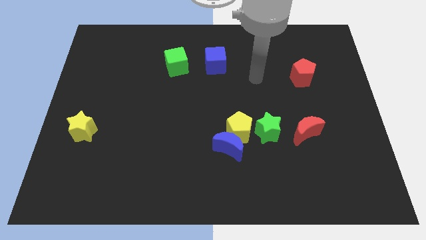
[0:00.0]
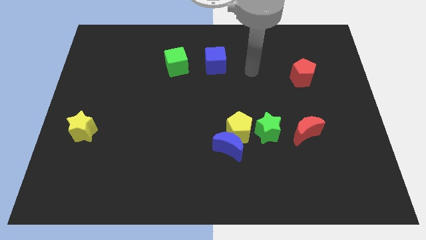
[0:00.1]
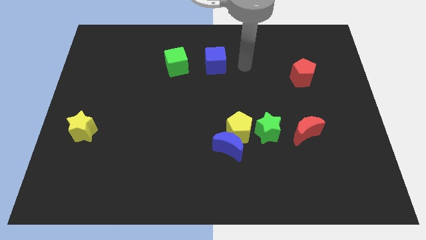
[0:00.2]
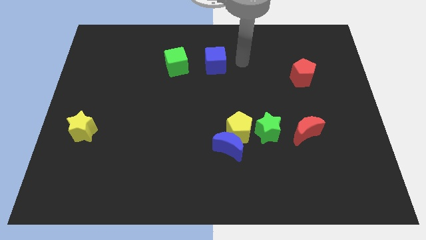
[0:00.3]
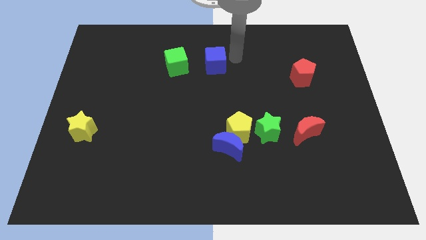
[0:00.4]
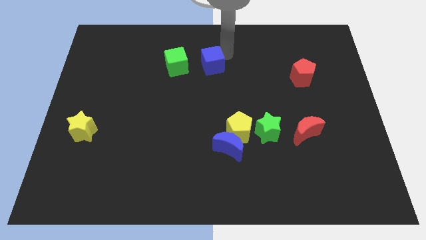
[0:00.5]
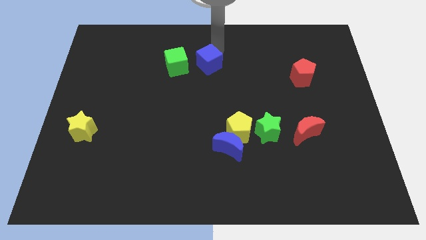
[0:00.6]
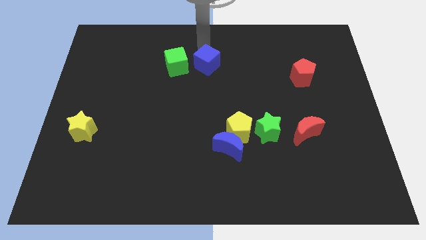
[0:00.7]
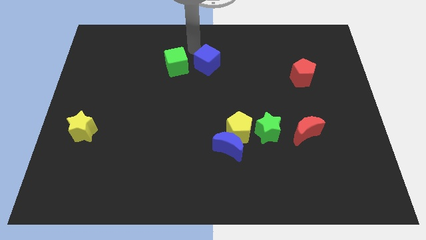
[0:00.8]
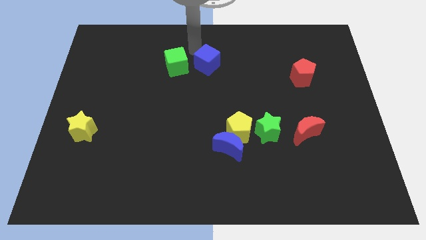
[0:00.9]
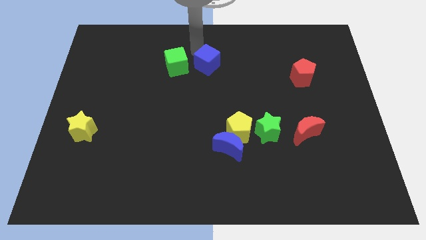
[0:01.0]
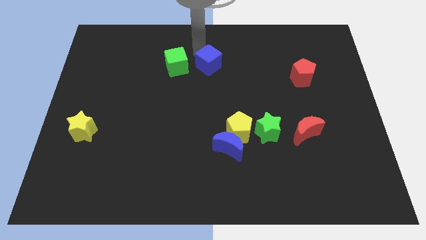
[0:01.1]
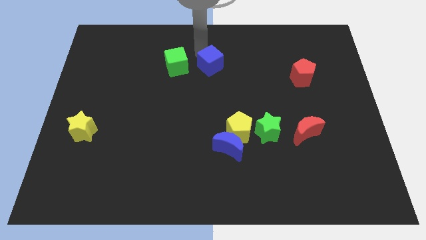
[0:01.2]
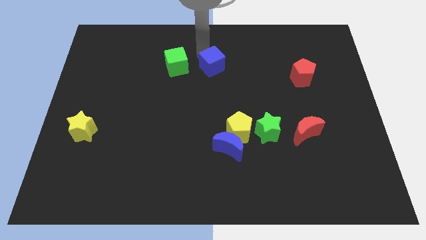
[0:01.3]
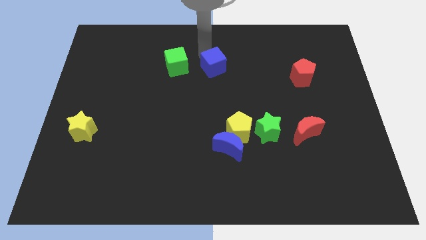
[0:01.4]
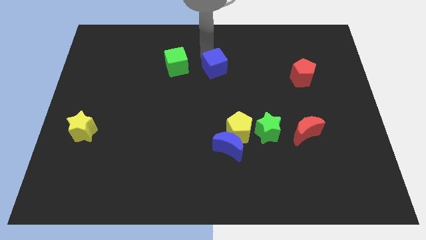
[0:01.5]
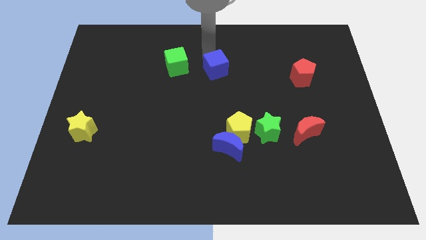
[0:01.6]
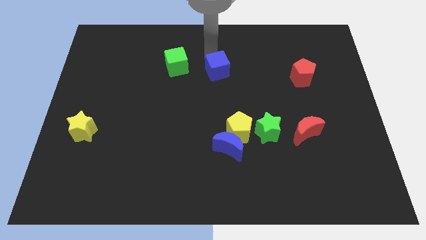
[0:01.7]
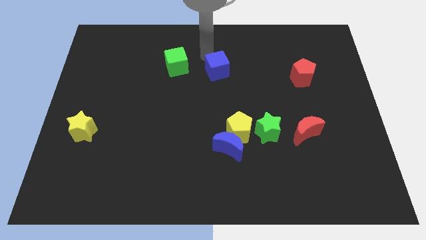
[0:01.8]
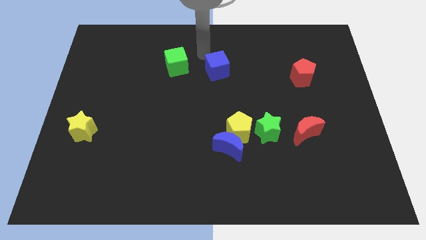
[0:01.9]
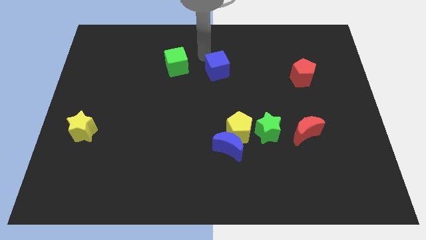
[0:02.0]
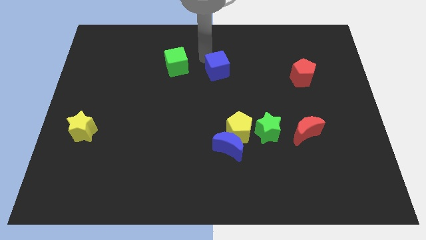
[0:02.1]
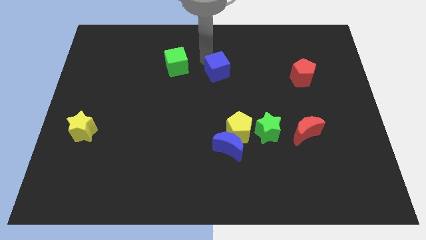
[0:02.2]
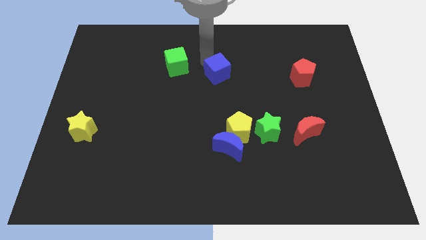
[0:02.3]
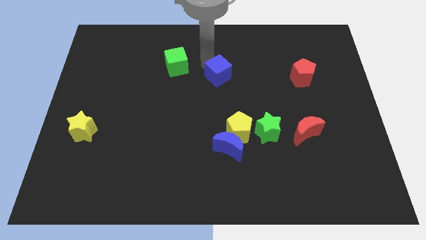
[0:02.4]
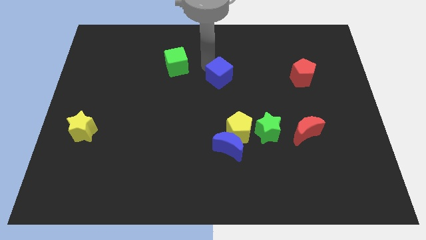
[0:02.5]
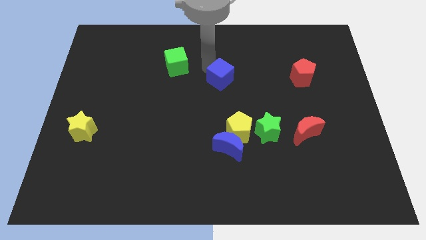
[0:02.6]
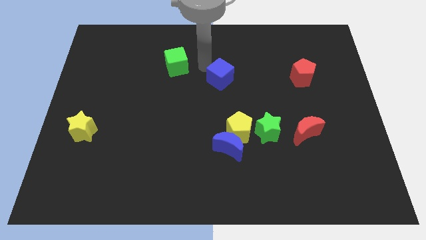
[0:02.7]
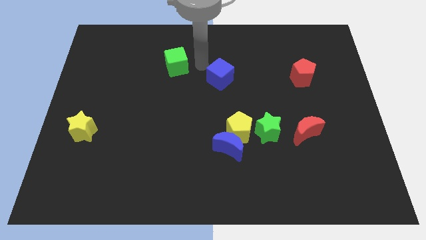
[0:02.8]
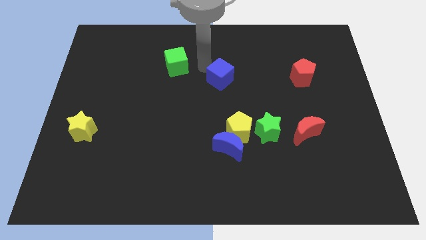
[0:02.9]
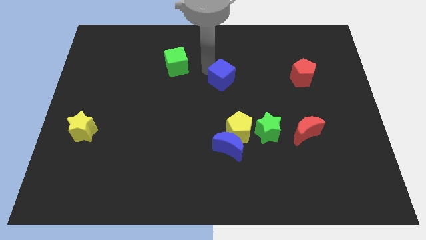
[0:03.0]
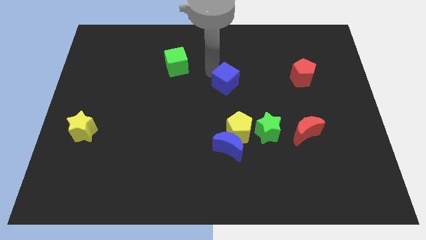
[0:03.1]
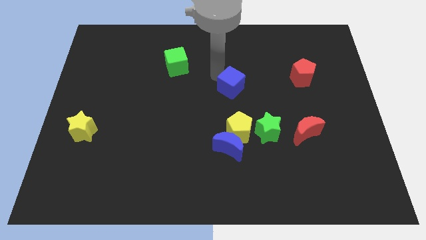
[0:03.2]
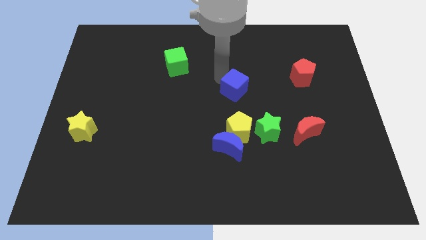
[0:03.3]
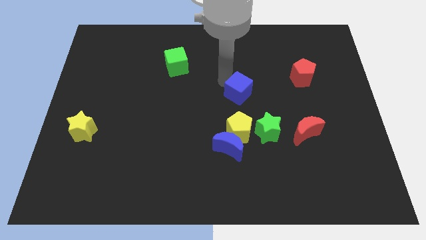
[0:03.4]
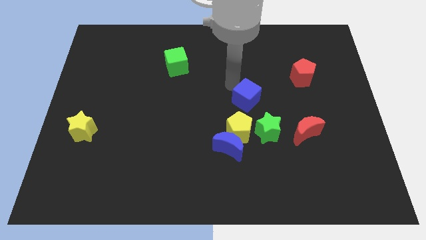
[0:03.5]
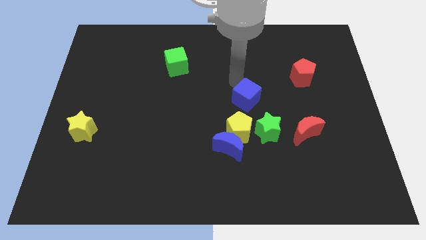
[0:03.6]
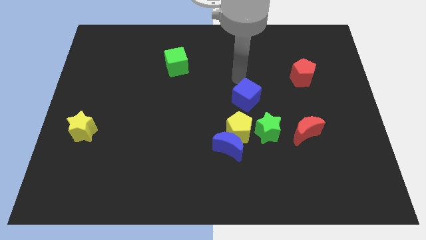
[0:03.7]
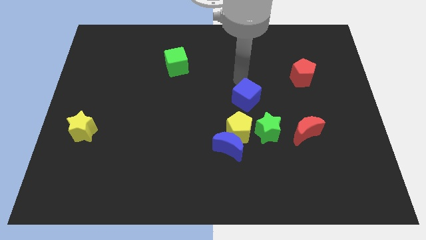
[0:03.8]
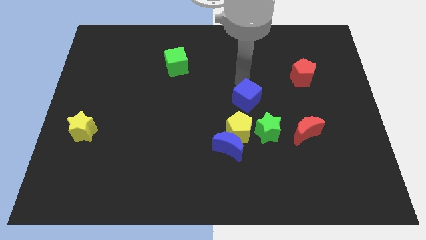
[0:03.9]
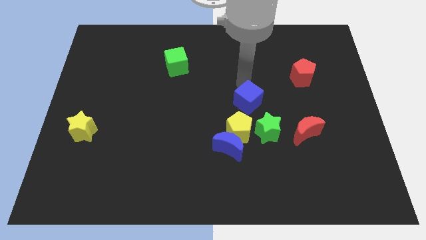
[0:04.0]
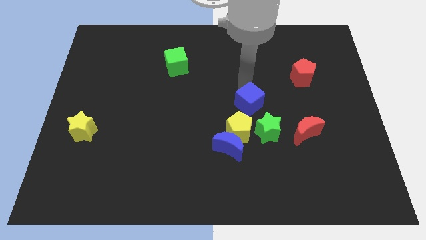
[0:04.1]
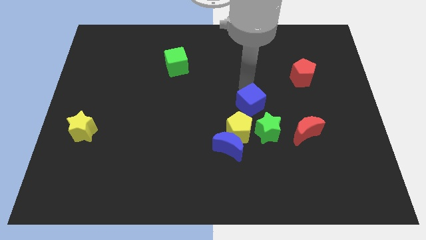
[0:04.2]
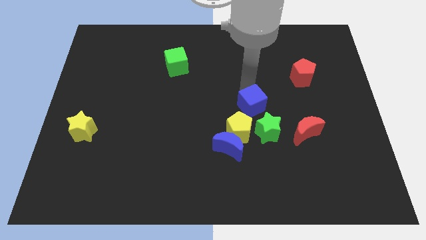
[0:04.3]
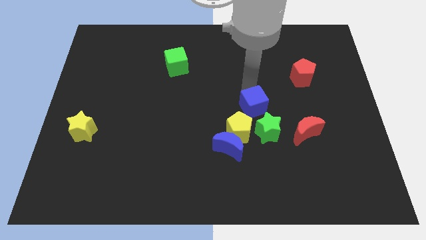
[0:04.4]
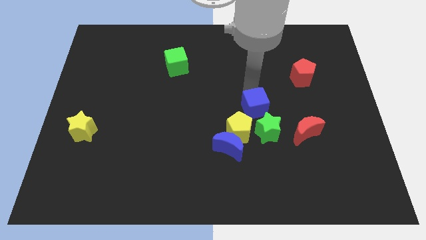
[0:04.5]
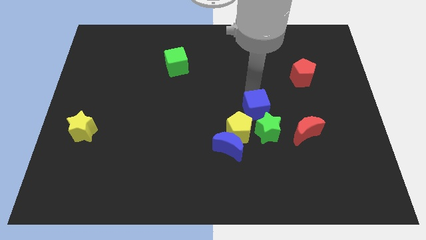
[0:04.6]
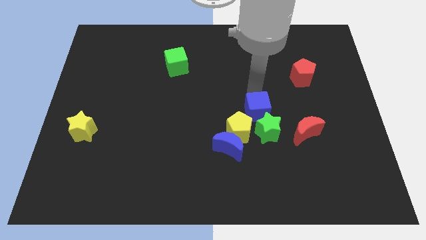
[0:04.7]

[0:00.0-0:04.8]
slide the blue cube towards the green star

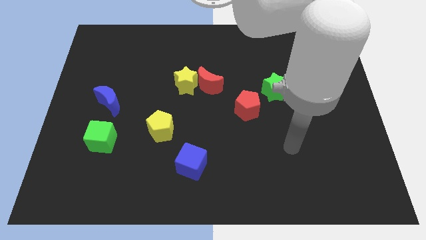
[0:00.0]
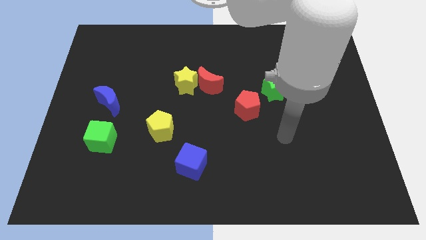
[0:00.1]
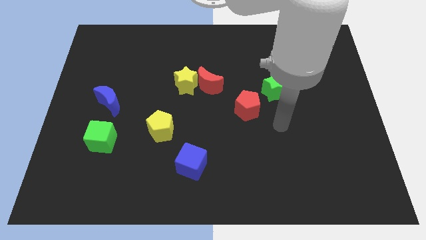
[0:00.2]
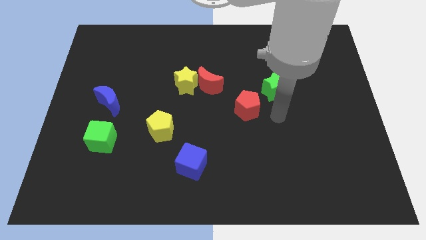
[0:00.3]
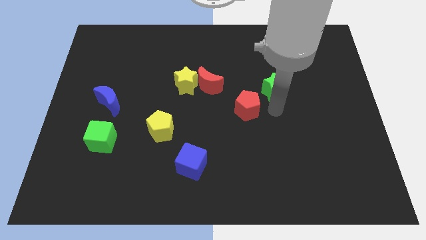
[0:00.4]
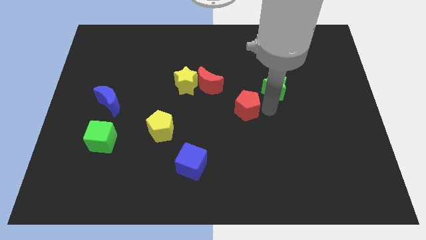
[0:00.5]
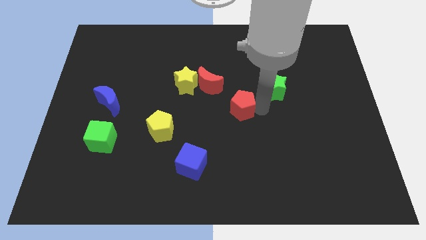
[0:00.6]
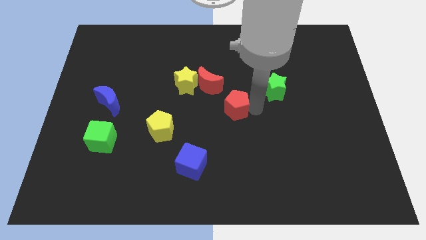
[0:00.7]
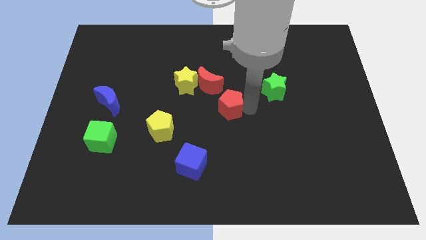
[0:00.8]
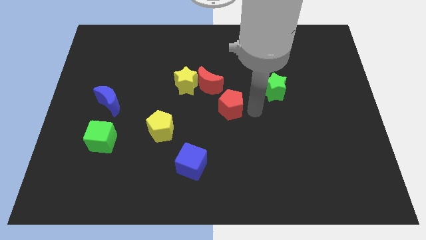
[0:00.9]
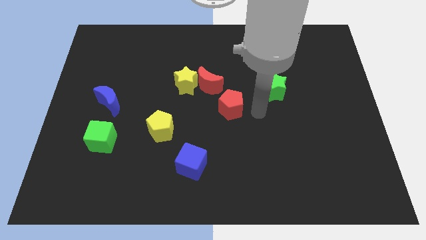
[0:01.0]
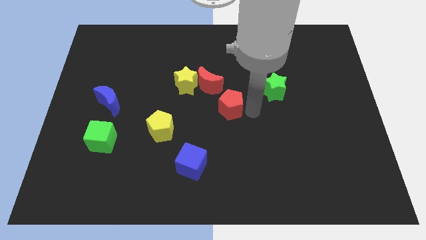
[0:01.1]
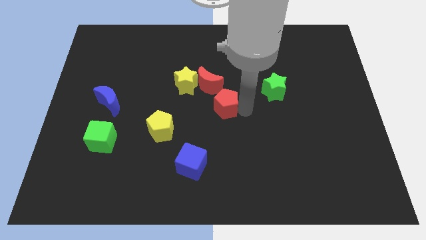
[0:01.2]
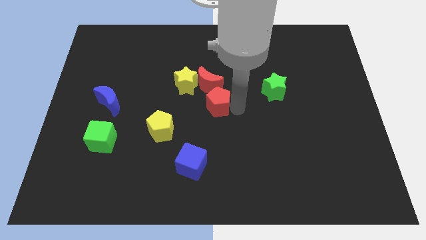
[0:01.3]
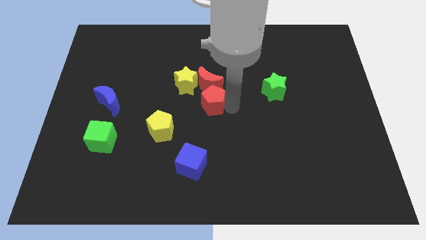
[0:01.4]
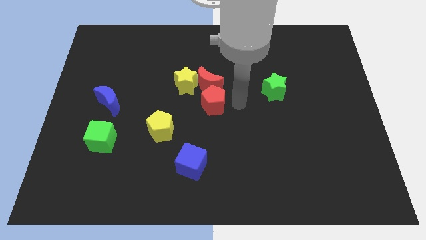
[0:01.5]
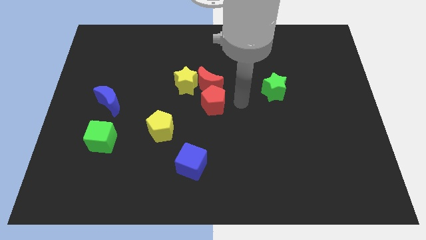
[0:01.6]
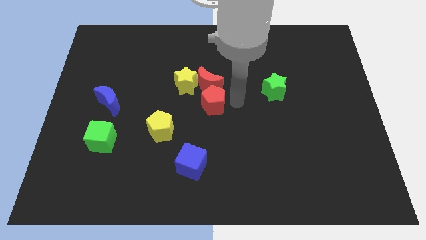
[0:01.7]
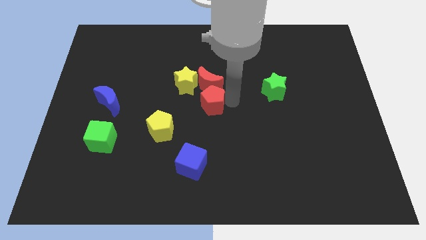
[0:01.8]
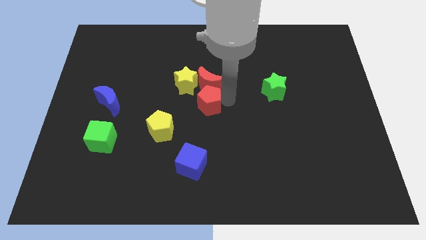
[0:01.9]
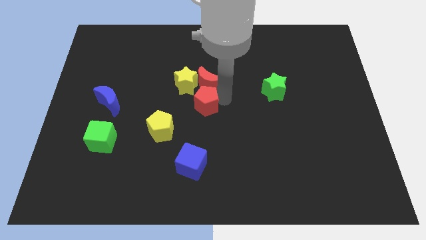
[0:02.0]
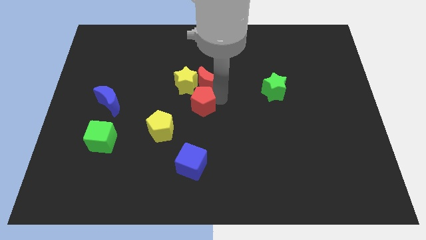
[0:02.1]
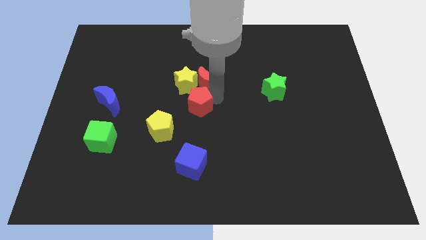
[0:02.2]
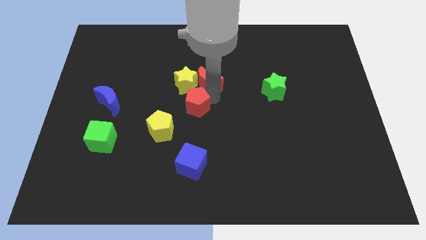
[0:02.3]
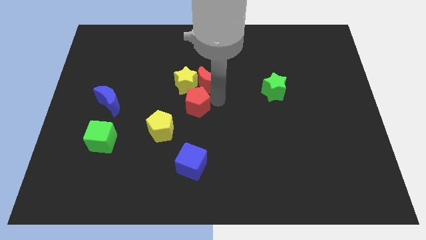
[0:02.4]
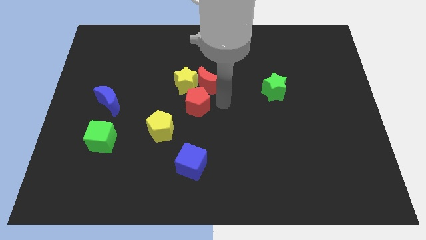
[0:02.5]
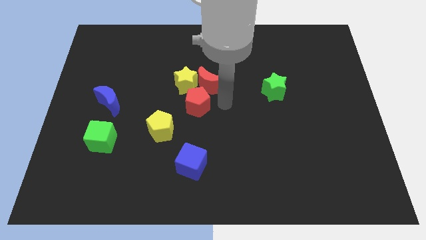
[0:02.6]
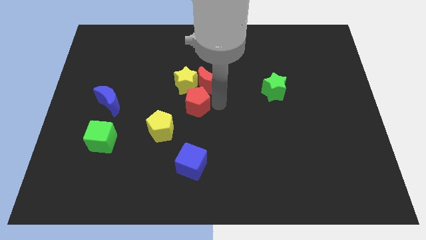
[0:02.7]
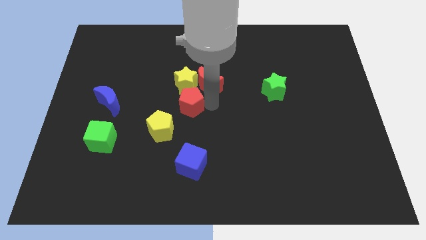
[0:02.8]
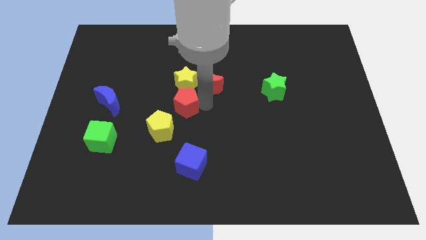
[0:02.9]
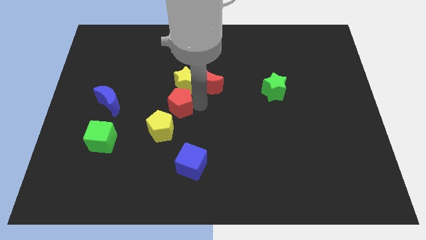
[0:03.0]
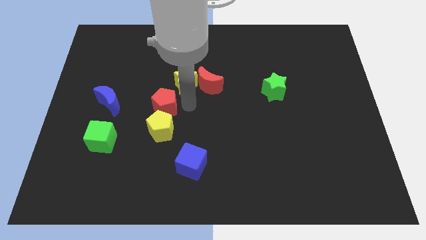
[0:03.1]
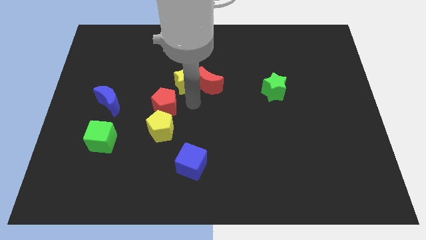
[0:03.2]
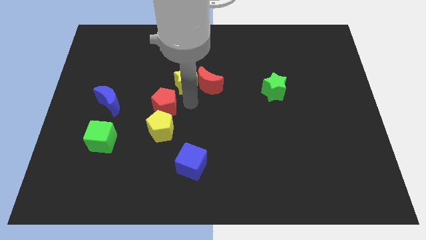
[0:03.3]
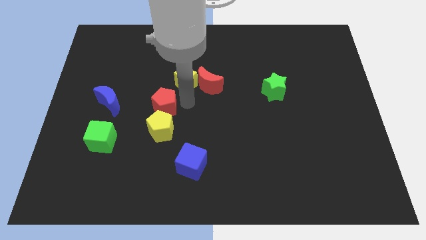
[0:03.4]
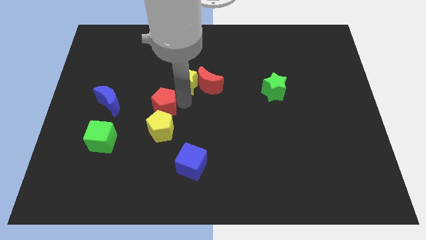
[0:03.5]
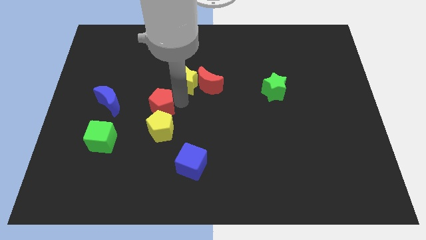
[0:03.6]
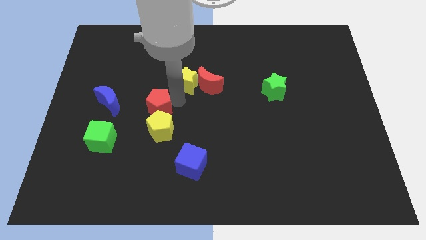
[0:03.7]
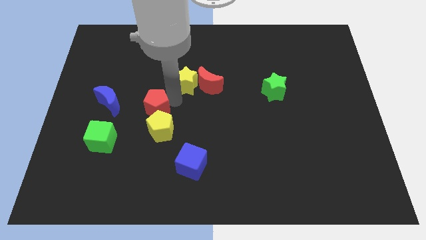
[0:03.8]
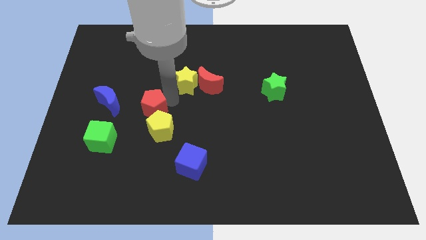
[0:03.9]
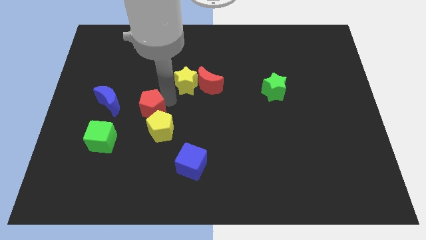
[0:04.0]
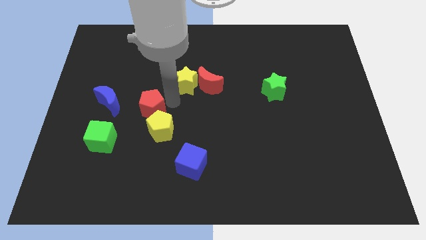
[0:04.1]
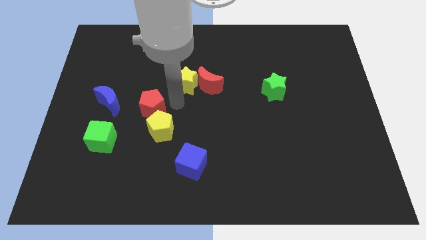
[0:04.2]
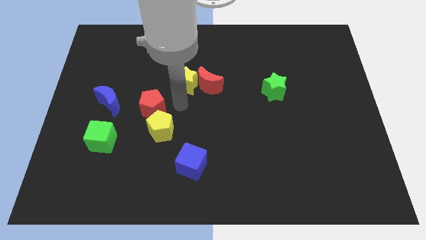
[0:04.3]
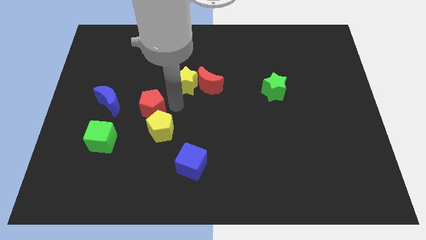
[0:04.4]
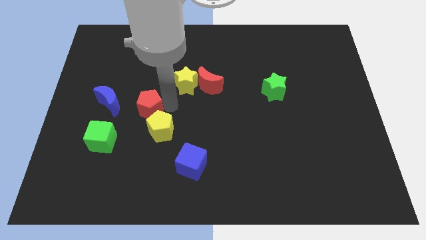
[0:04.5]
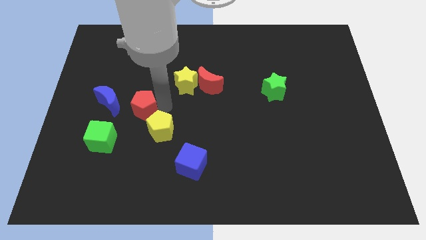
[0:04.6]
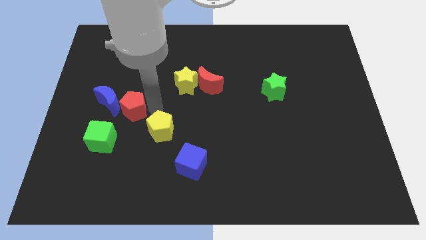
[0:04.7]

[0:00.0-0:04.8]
slide the red pentagon next to the blue moon
